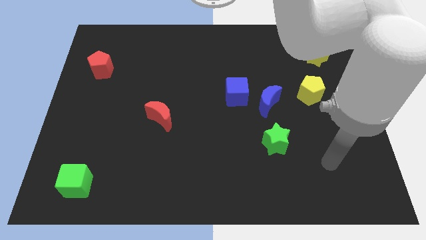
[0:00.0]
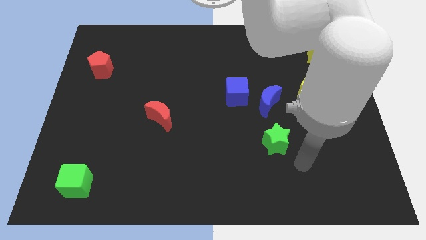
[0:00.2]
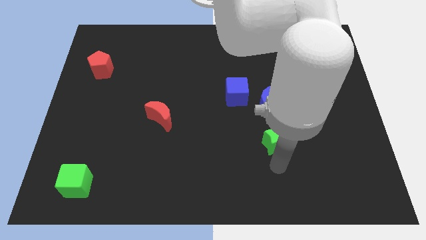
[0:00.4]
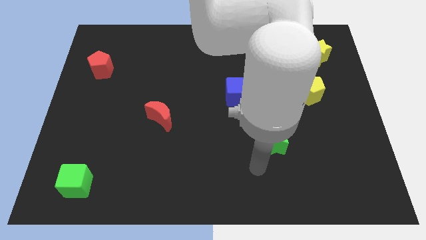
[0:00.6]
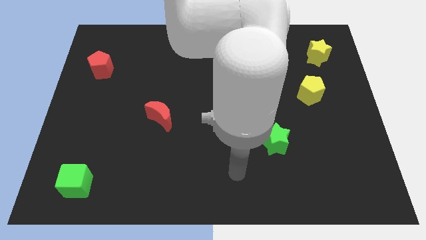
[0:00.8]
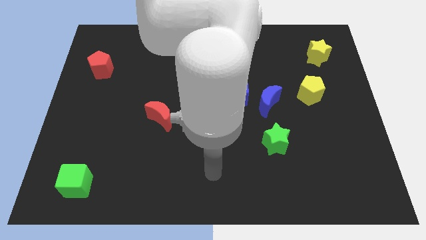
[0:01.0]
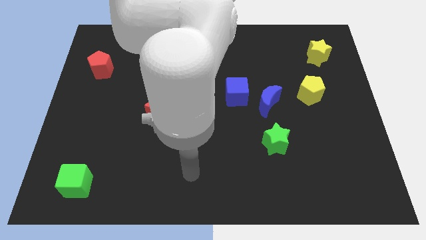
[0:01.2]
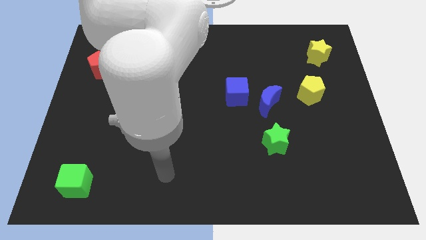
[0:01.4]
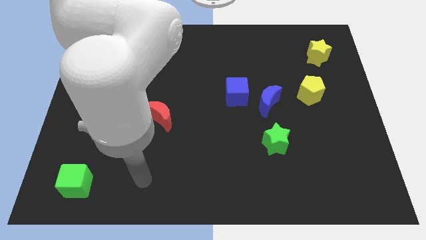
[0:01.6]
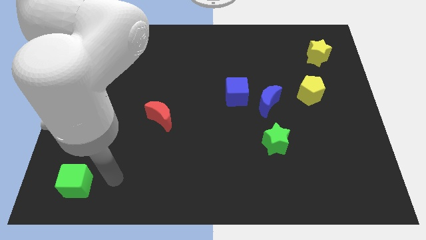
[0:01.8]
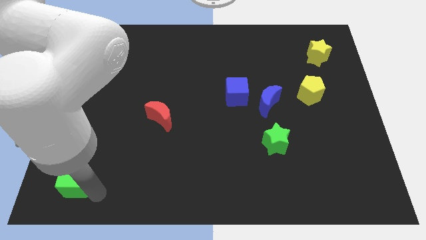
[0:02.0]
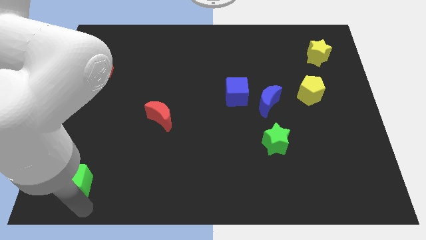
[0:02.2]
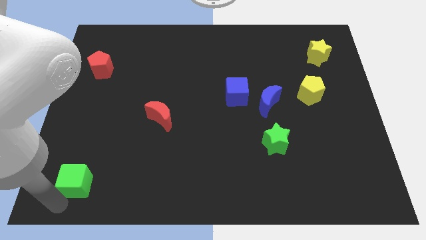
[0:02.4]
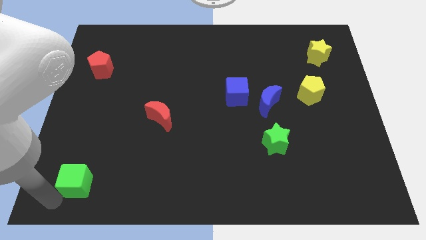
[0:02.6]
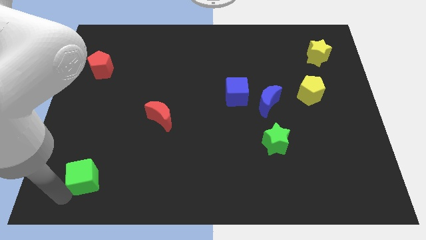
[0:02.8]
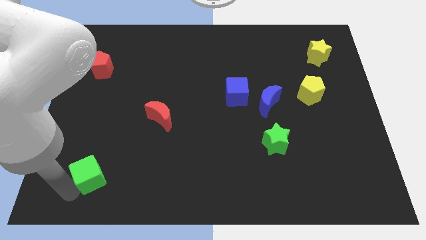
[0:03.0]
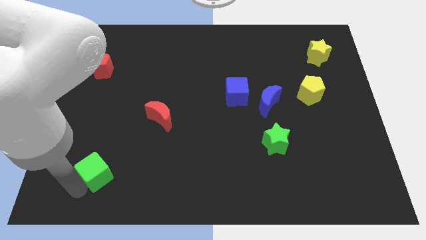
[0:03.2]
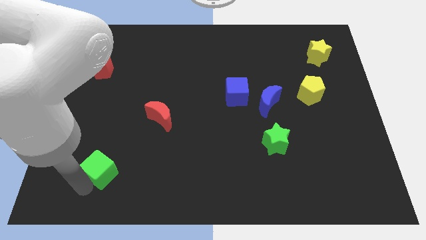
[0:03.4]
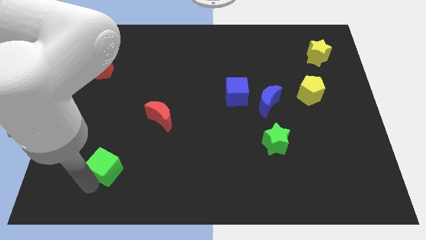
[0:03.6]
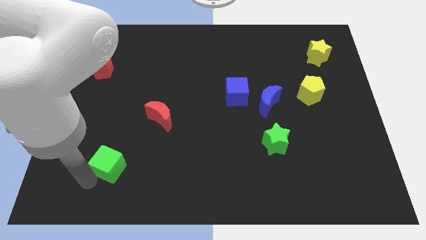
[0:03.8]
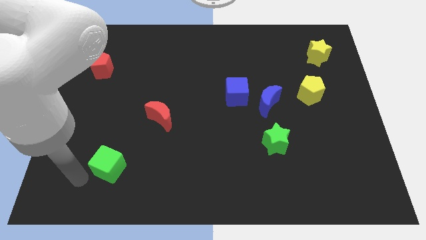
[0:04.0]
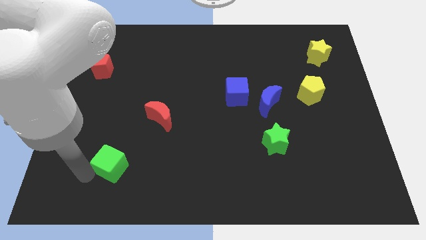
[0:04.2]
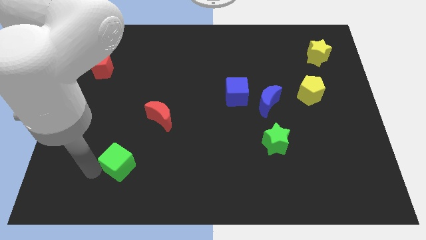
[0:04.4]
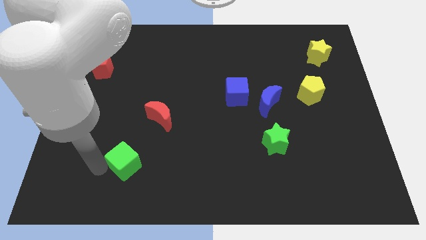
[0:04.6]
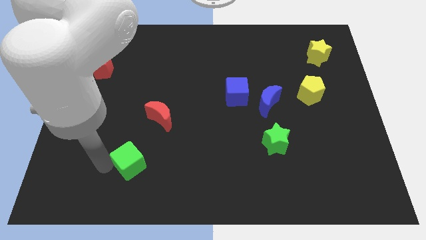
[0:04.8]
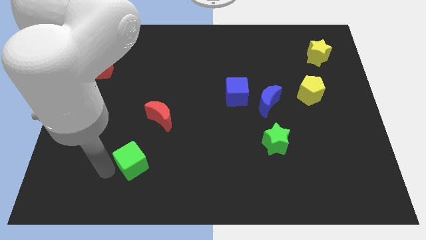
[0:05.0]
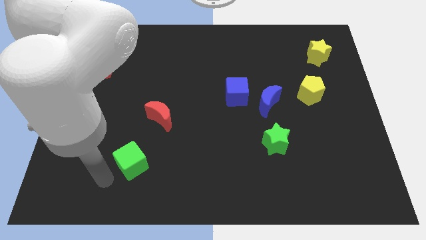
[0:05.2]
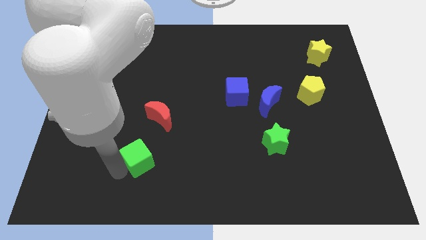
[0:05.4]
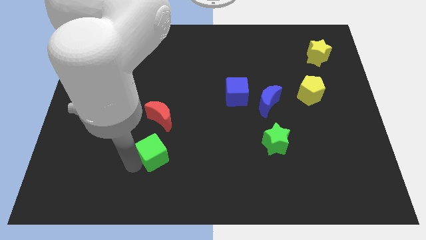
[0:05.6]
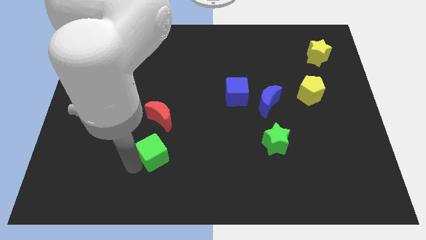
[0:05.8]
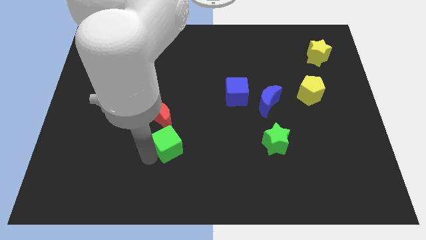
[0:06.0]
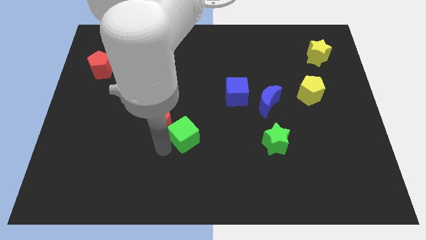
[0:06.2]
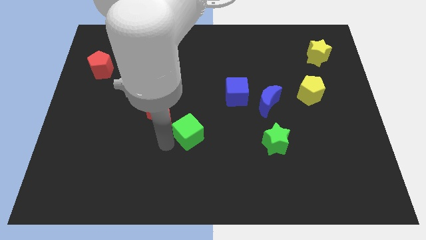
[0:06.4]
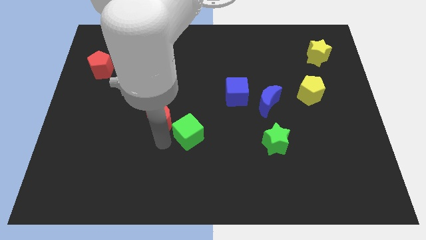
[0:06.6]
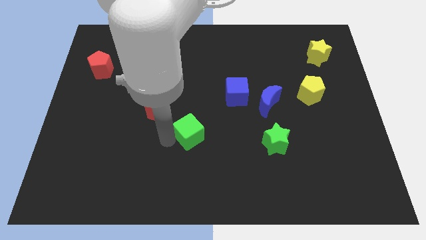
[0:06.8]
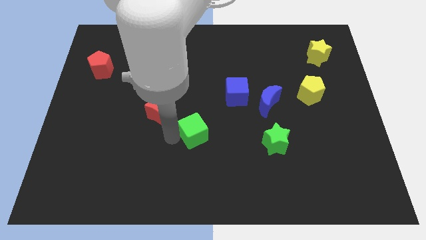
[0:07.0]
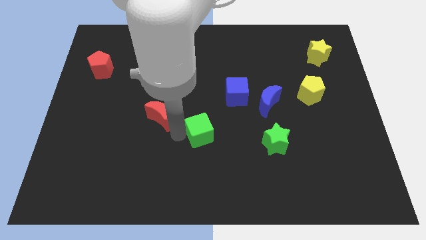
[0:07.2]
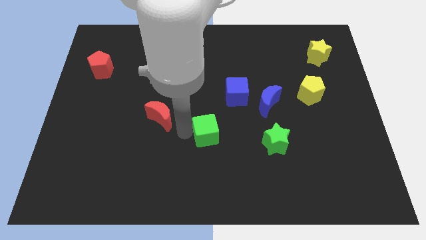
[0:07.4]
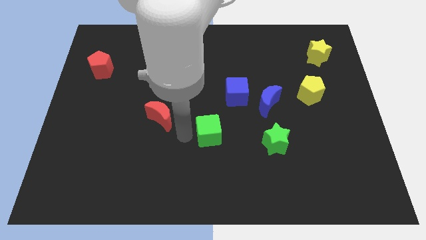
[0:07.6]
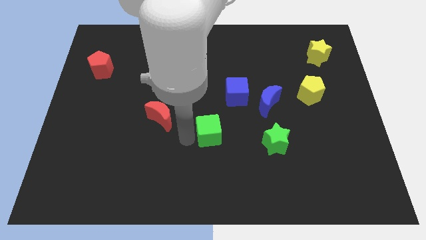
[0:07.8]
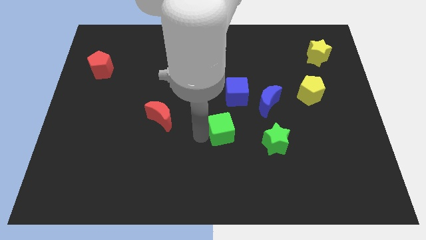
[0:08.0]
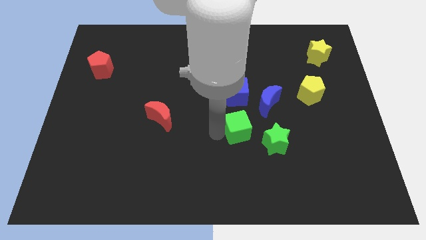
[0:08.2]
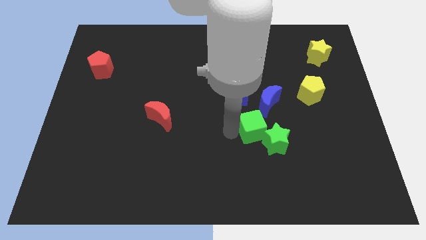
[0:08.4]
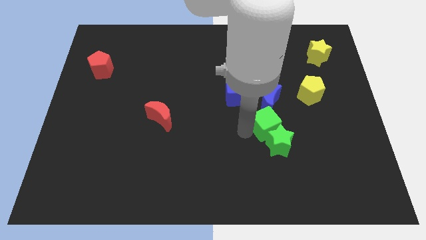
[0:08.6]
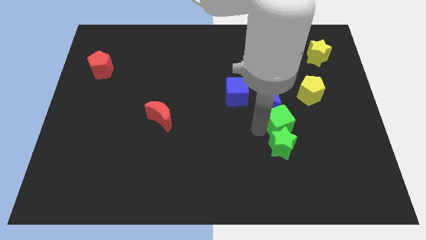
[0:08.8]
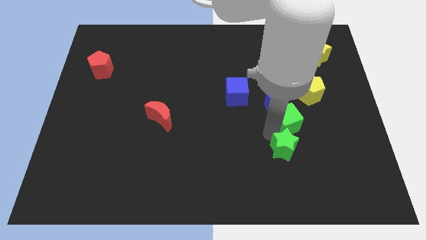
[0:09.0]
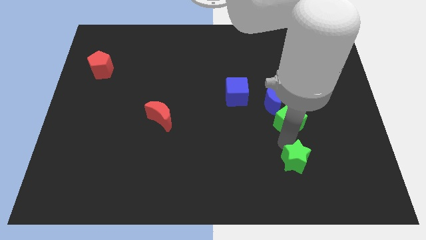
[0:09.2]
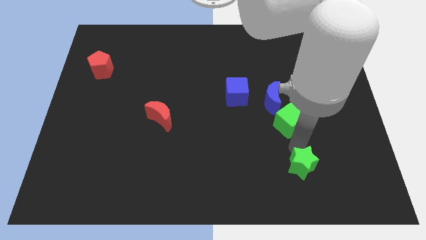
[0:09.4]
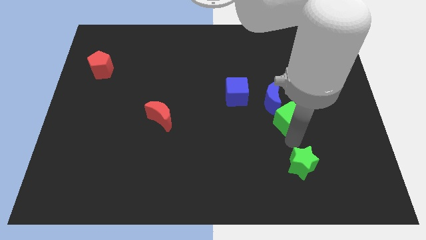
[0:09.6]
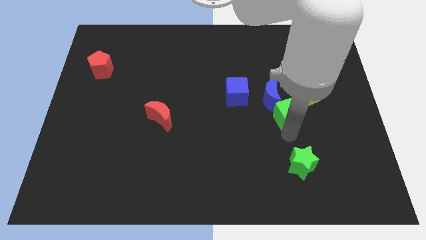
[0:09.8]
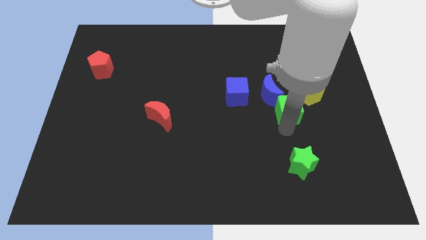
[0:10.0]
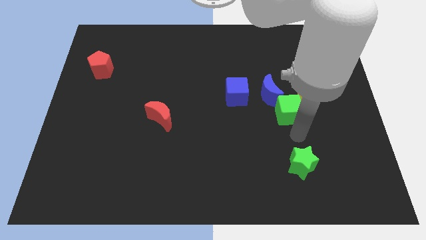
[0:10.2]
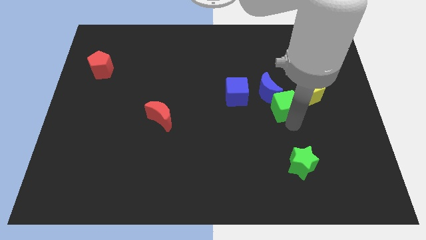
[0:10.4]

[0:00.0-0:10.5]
move the green cube right of the blue cube

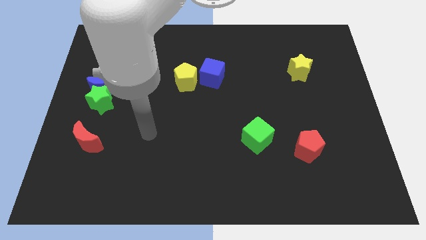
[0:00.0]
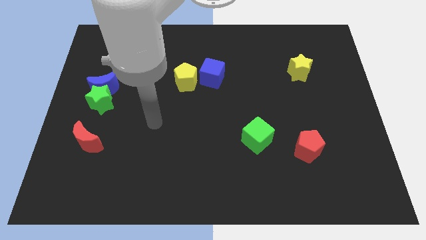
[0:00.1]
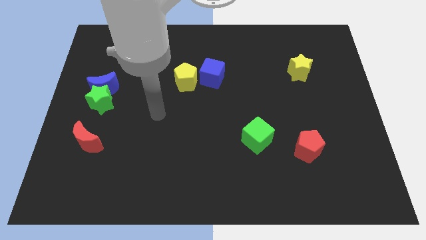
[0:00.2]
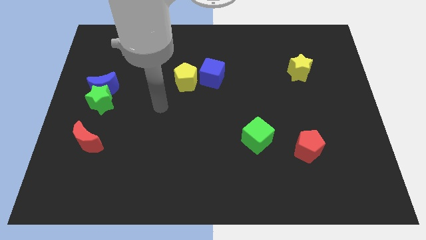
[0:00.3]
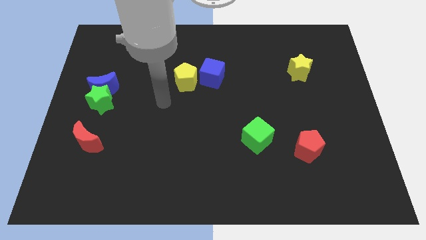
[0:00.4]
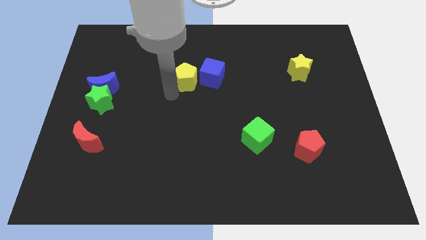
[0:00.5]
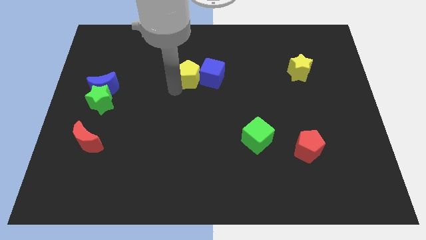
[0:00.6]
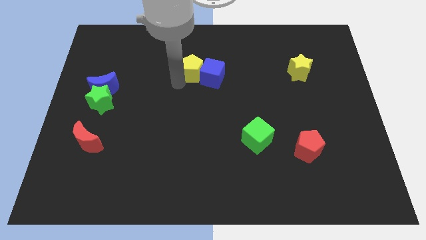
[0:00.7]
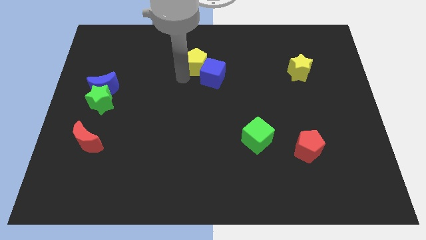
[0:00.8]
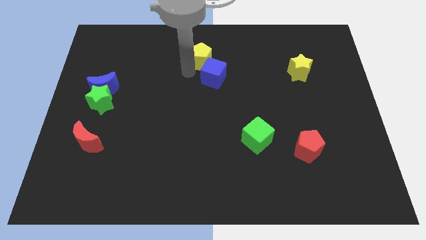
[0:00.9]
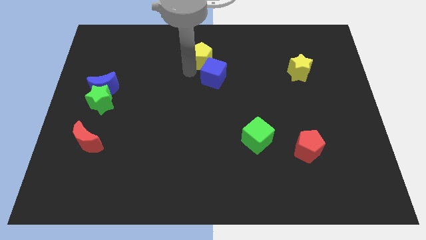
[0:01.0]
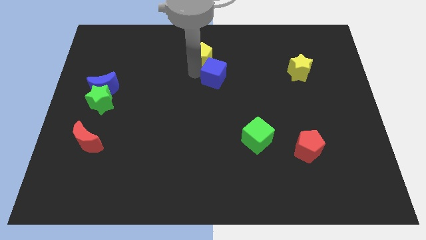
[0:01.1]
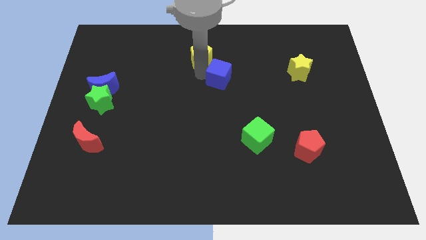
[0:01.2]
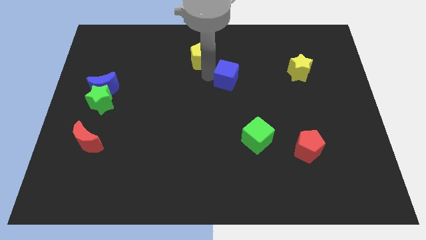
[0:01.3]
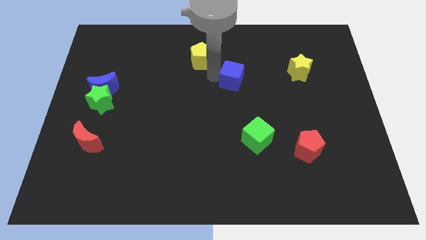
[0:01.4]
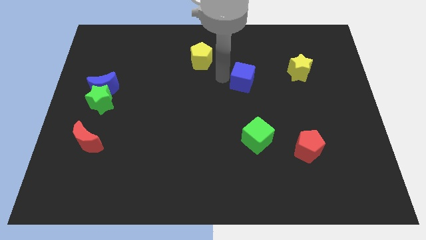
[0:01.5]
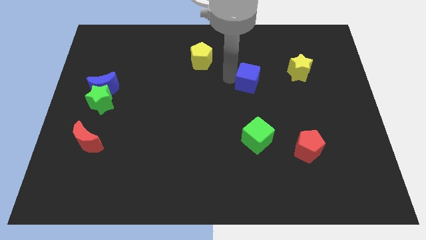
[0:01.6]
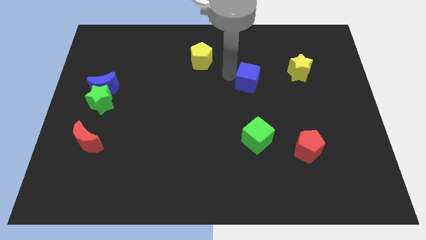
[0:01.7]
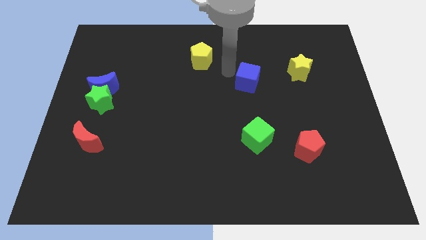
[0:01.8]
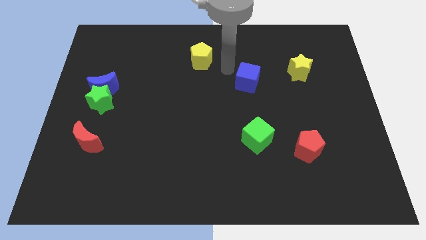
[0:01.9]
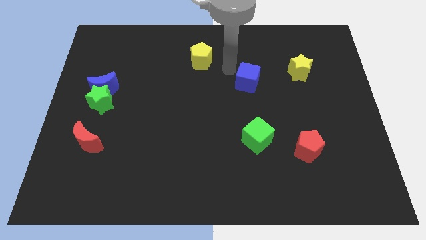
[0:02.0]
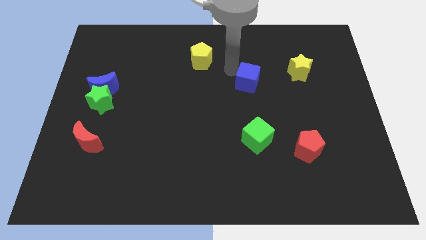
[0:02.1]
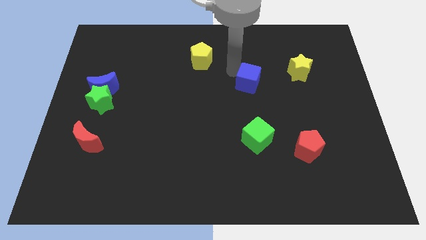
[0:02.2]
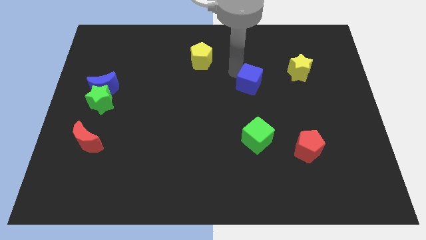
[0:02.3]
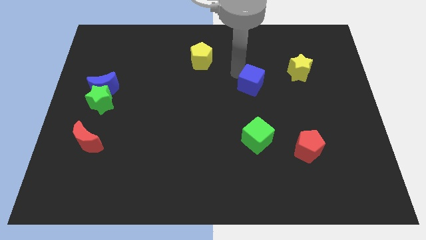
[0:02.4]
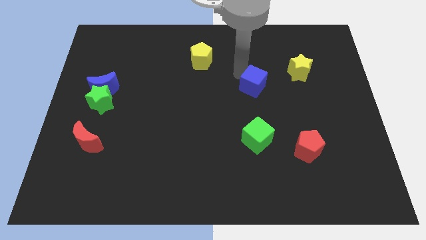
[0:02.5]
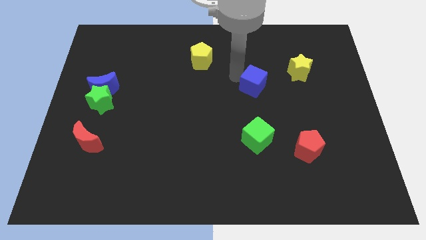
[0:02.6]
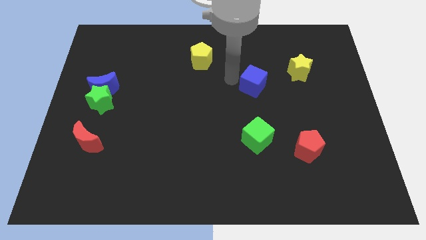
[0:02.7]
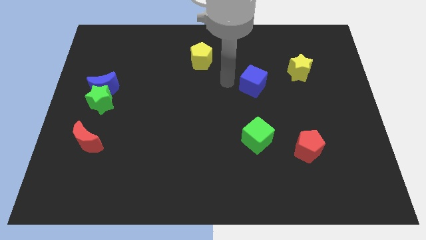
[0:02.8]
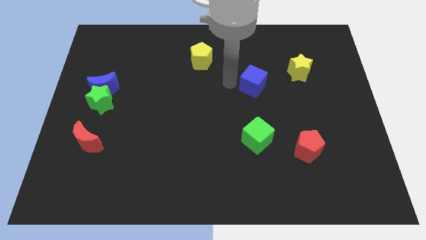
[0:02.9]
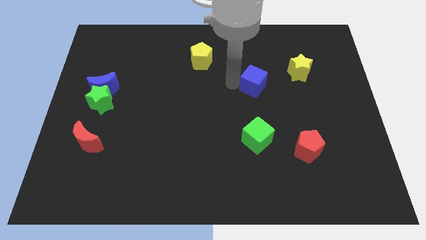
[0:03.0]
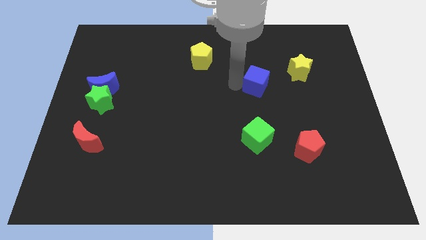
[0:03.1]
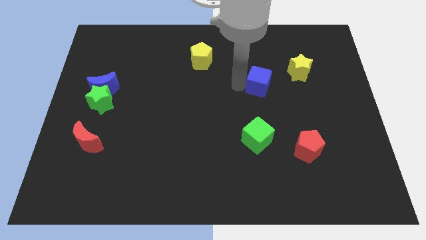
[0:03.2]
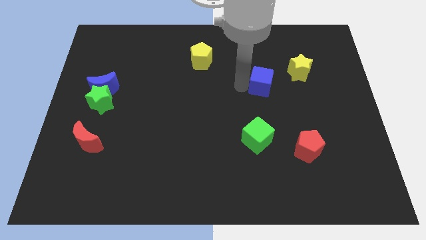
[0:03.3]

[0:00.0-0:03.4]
move the blue cube to the bottom left of the yellow star
